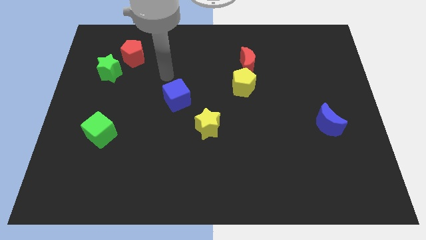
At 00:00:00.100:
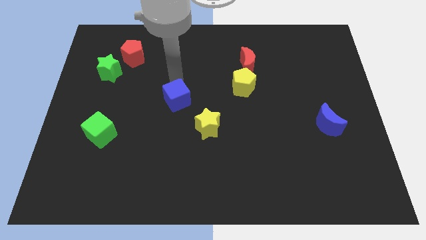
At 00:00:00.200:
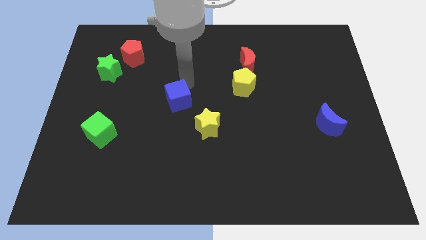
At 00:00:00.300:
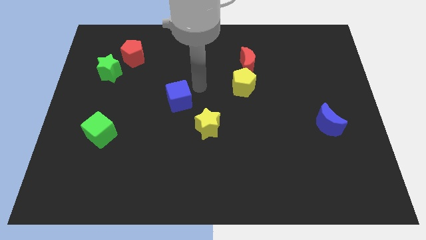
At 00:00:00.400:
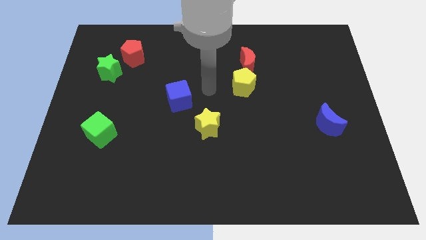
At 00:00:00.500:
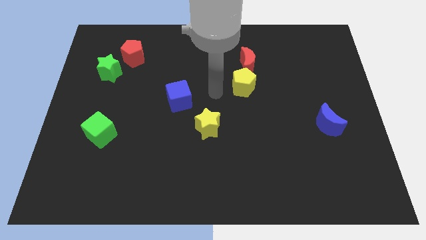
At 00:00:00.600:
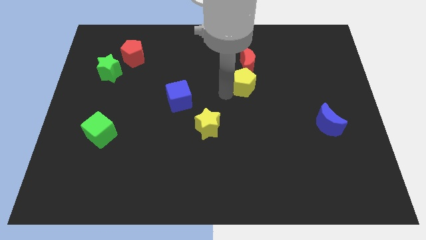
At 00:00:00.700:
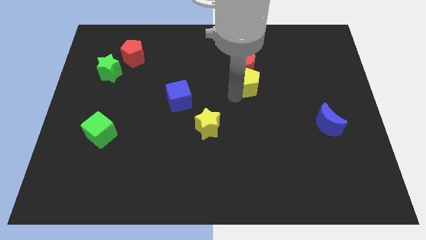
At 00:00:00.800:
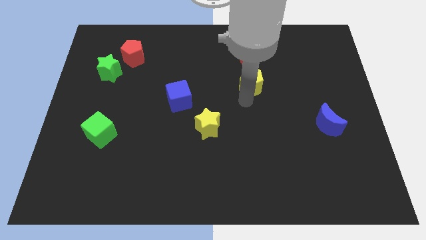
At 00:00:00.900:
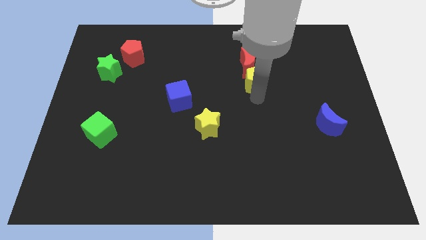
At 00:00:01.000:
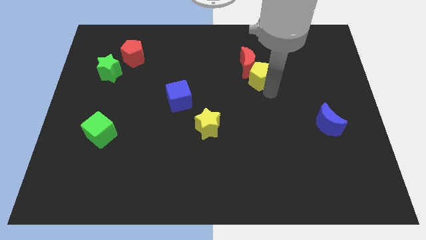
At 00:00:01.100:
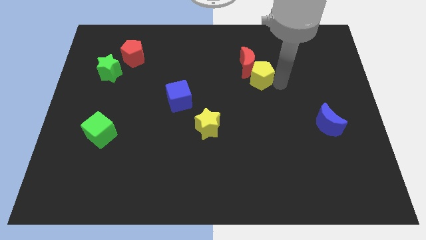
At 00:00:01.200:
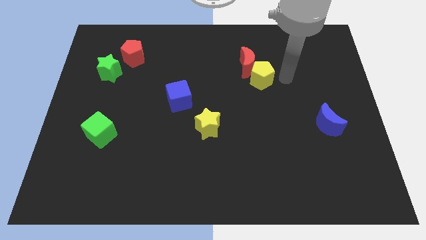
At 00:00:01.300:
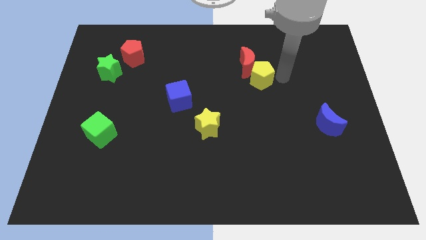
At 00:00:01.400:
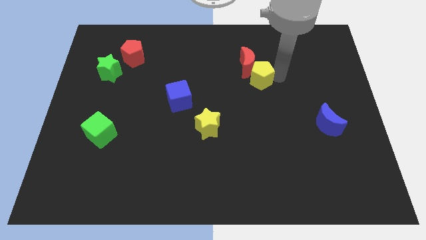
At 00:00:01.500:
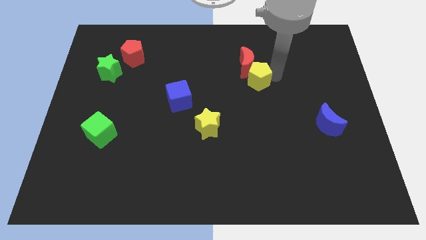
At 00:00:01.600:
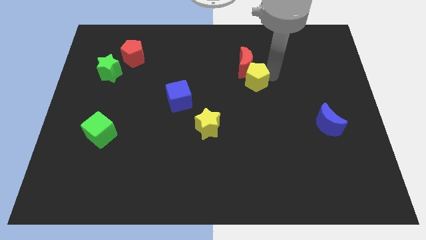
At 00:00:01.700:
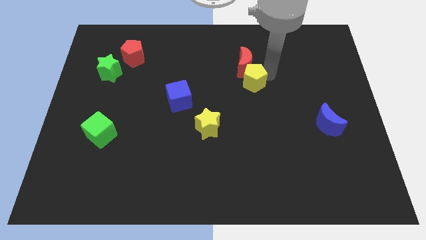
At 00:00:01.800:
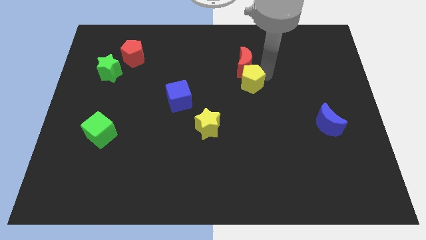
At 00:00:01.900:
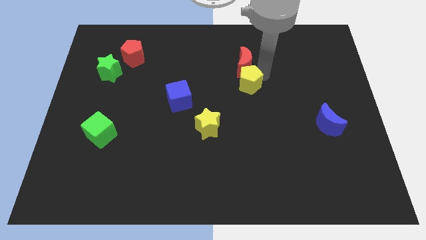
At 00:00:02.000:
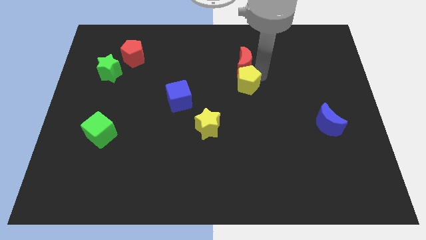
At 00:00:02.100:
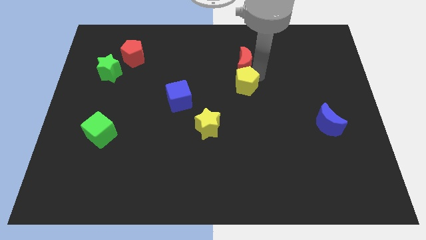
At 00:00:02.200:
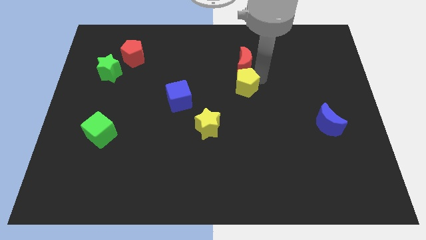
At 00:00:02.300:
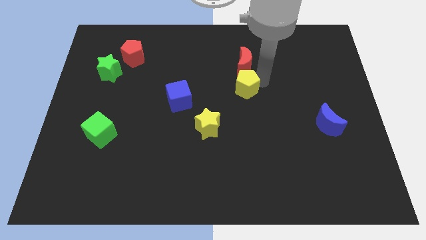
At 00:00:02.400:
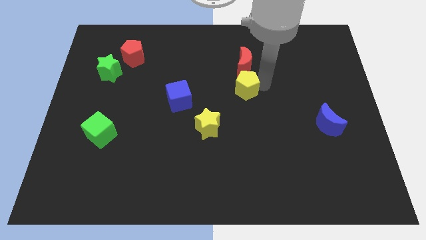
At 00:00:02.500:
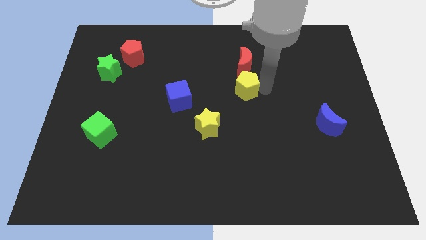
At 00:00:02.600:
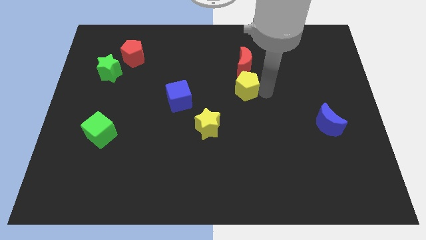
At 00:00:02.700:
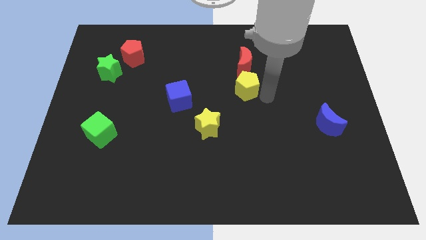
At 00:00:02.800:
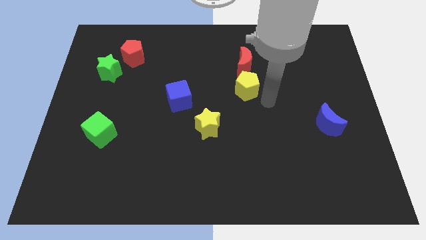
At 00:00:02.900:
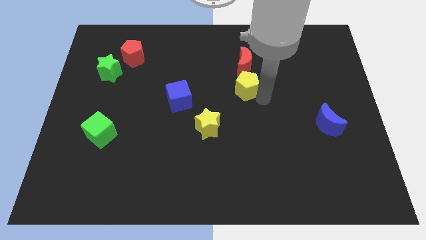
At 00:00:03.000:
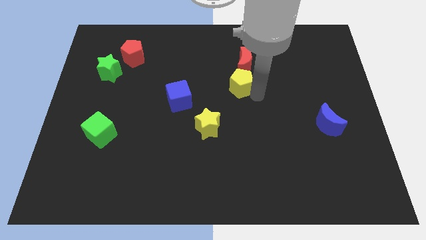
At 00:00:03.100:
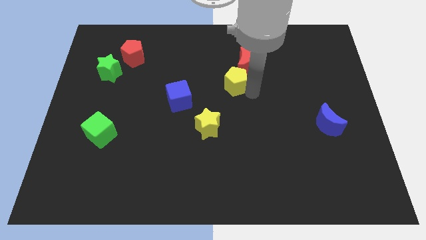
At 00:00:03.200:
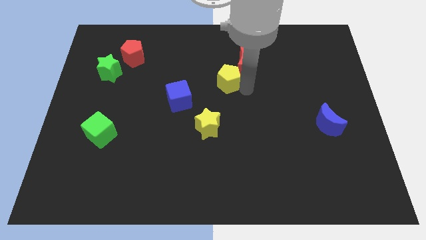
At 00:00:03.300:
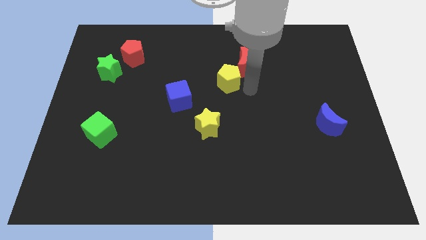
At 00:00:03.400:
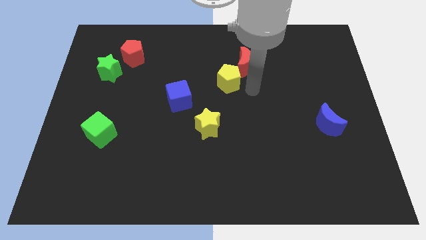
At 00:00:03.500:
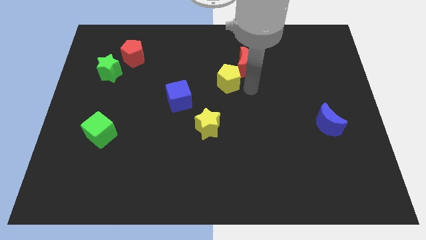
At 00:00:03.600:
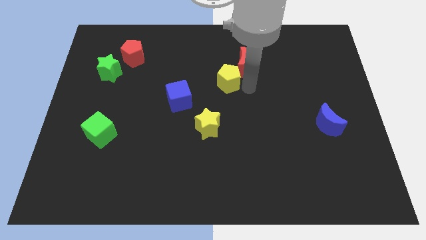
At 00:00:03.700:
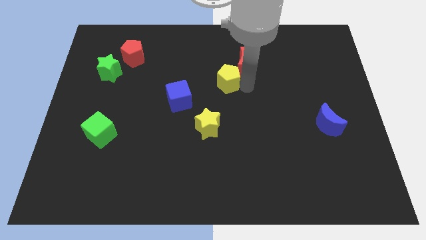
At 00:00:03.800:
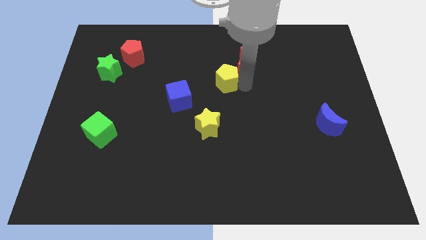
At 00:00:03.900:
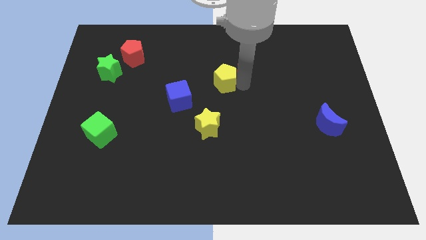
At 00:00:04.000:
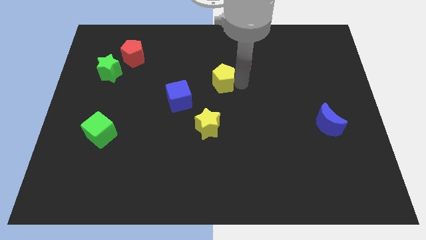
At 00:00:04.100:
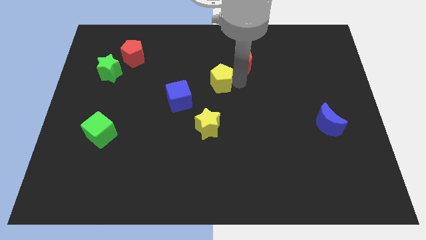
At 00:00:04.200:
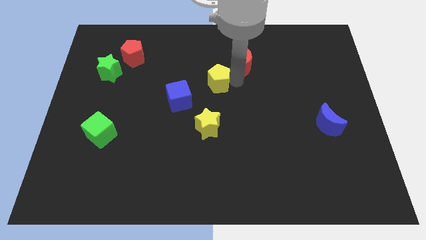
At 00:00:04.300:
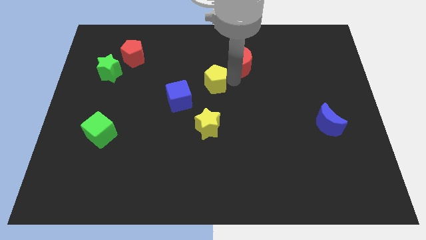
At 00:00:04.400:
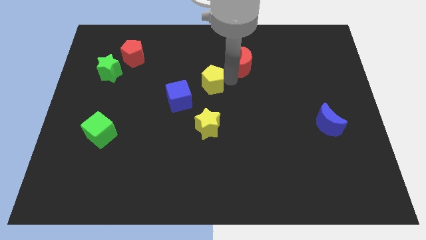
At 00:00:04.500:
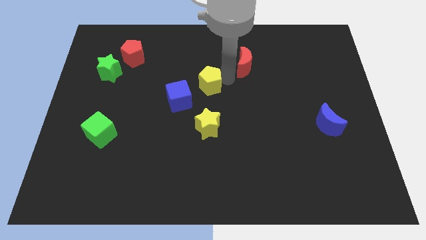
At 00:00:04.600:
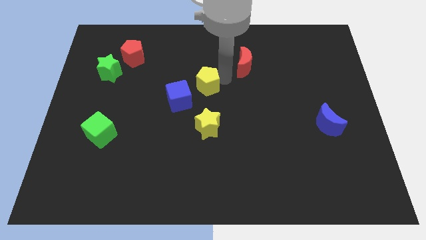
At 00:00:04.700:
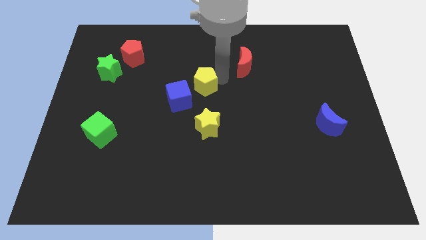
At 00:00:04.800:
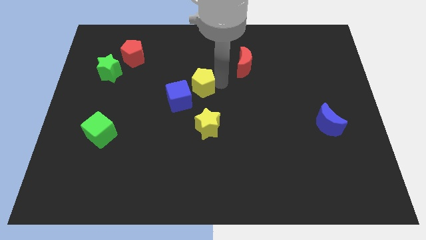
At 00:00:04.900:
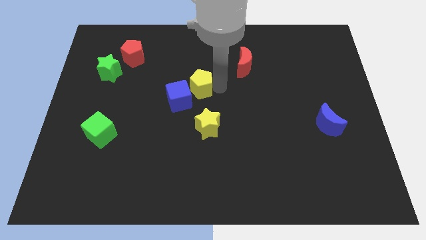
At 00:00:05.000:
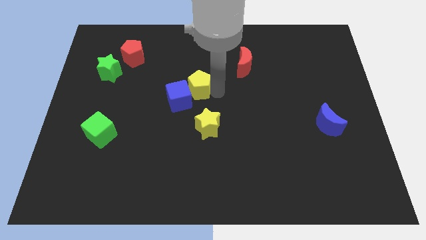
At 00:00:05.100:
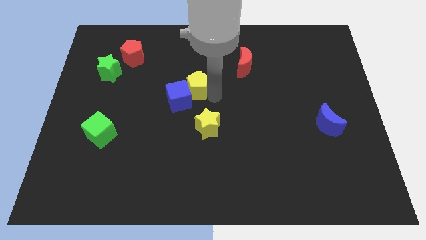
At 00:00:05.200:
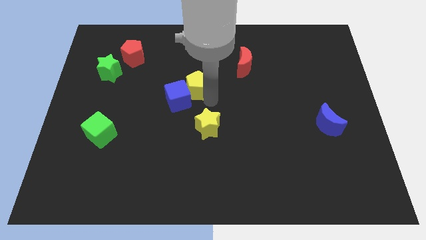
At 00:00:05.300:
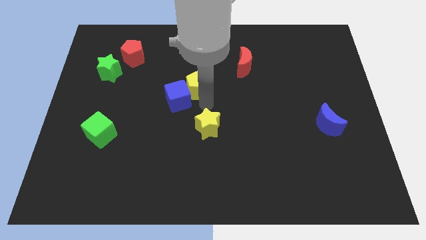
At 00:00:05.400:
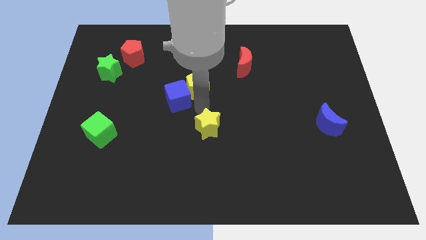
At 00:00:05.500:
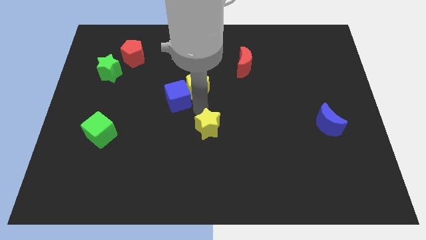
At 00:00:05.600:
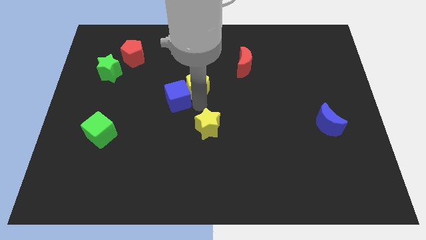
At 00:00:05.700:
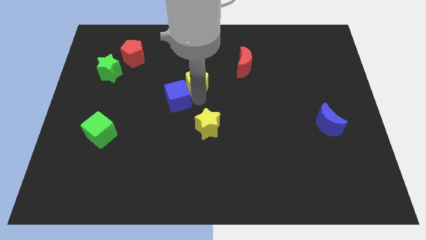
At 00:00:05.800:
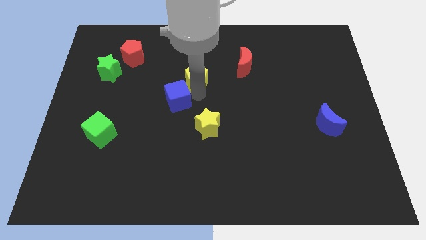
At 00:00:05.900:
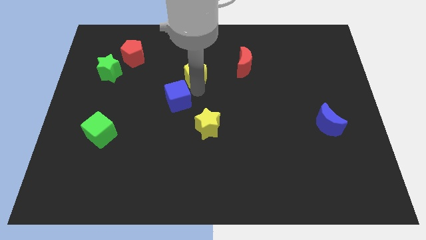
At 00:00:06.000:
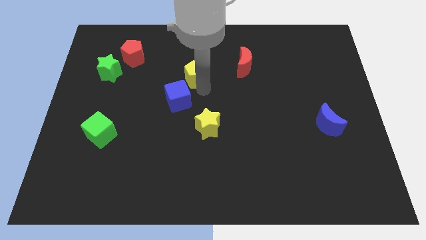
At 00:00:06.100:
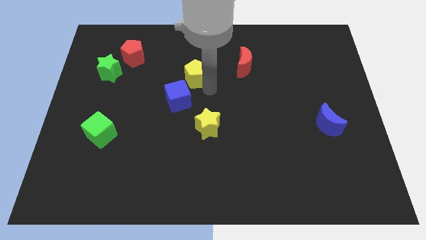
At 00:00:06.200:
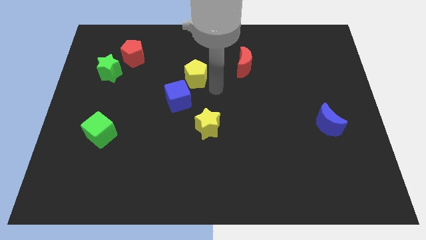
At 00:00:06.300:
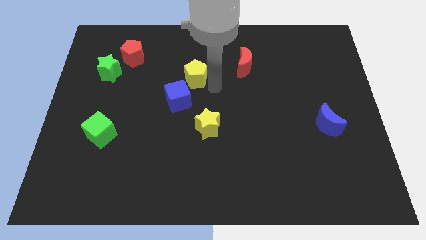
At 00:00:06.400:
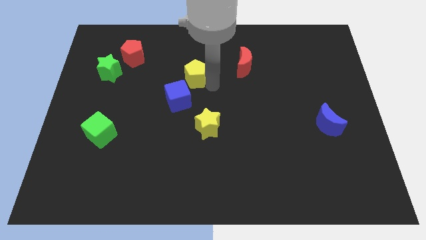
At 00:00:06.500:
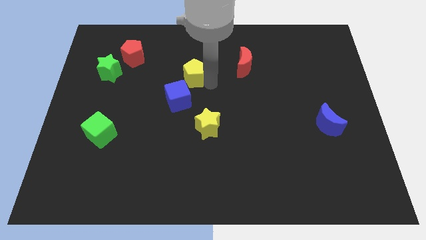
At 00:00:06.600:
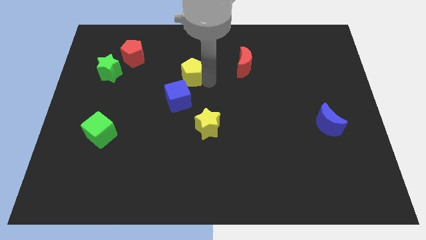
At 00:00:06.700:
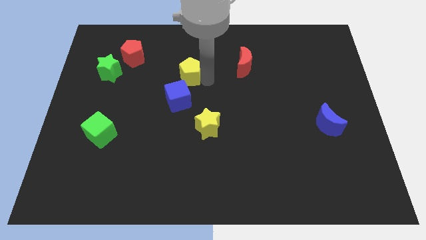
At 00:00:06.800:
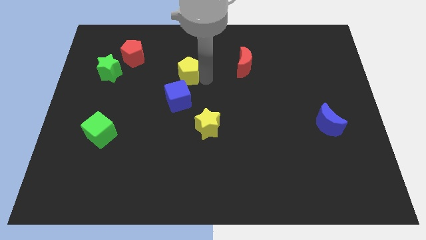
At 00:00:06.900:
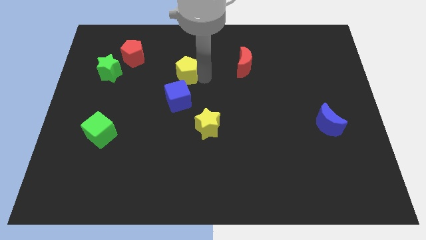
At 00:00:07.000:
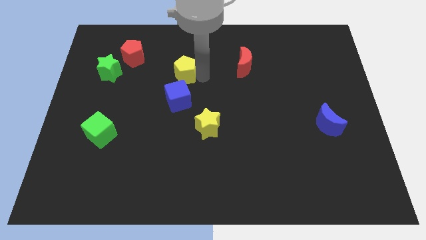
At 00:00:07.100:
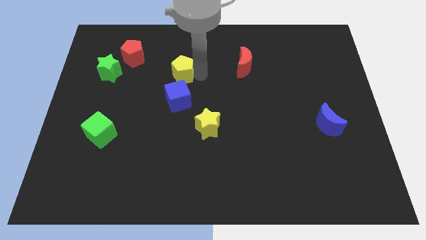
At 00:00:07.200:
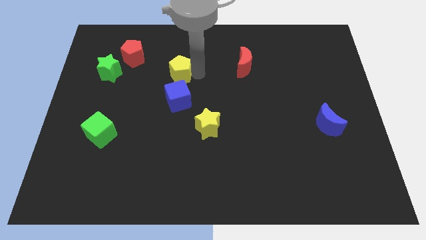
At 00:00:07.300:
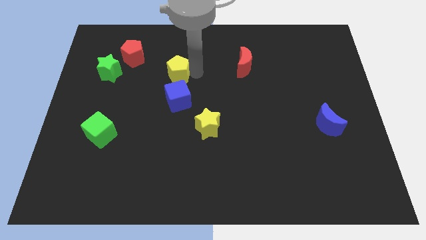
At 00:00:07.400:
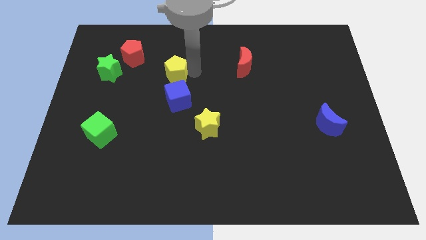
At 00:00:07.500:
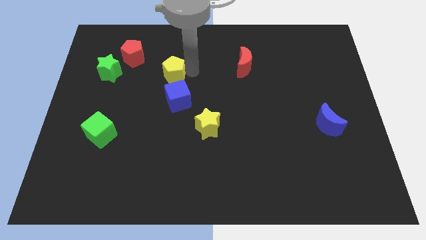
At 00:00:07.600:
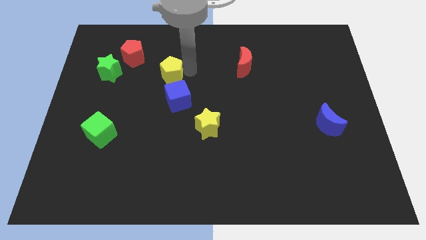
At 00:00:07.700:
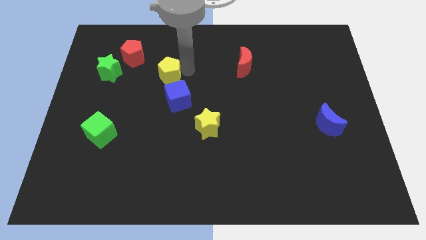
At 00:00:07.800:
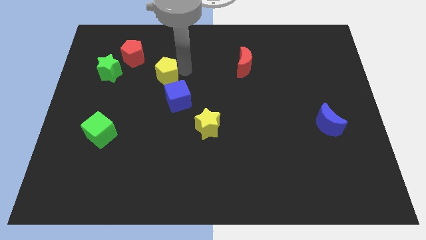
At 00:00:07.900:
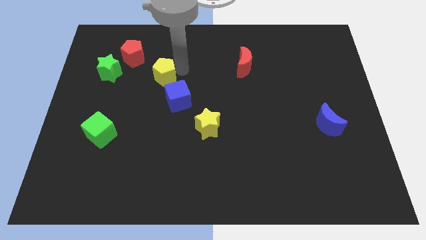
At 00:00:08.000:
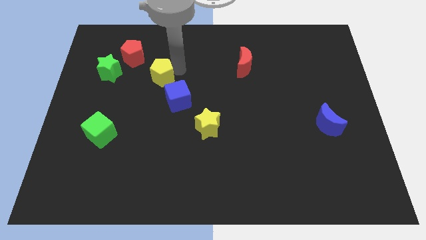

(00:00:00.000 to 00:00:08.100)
move the yellow pentagon to the left
